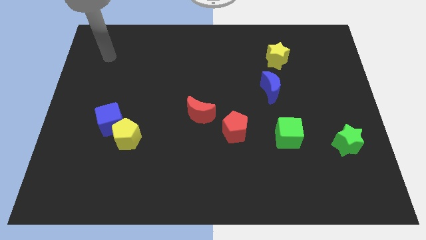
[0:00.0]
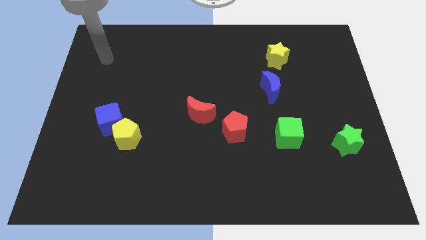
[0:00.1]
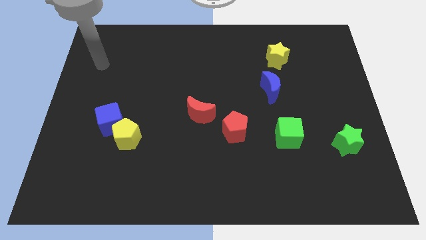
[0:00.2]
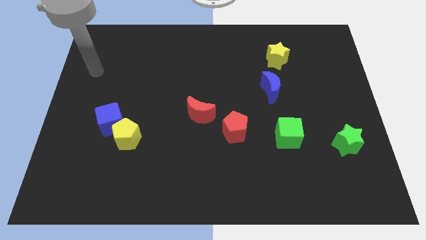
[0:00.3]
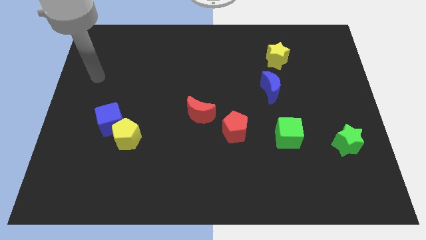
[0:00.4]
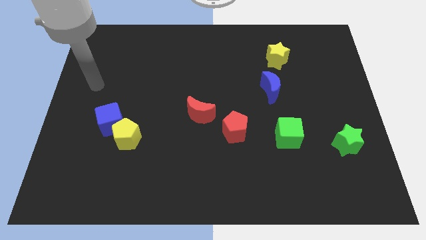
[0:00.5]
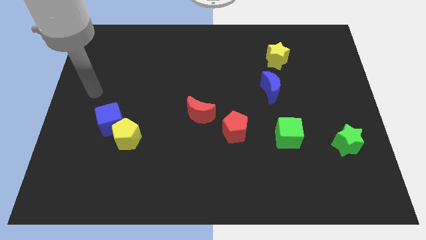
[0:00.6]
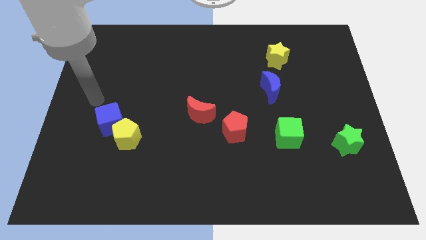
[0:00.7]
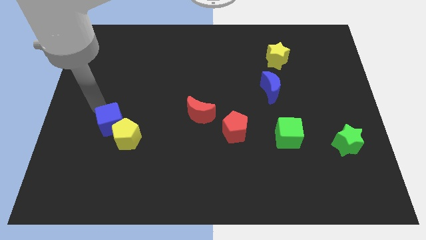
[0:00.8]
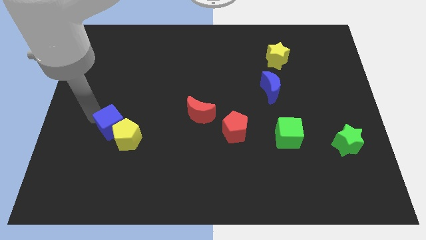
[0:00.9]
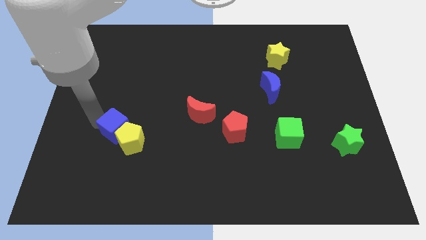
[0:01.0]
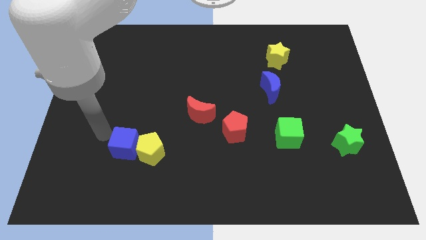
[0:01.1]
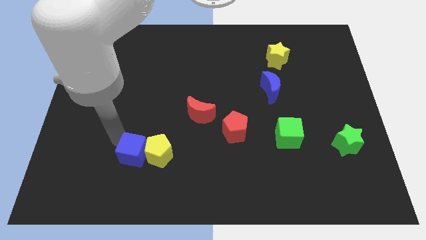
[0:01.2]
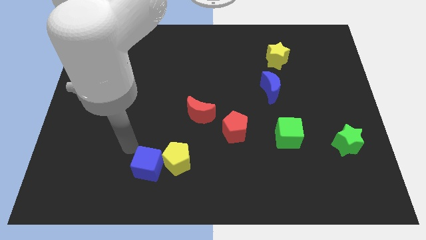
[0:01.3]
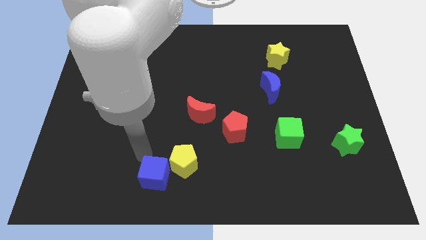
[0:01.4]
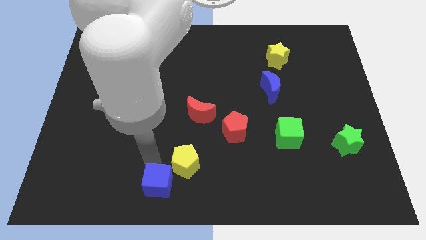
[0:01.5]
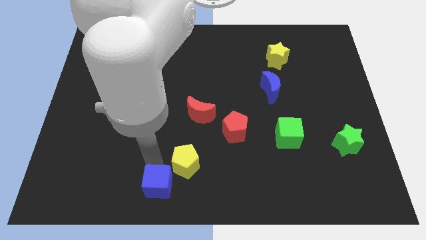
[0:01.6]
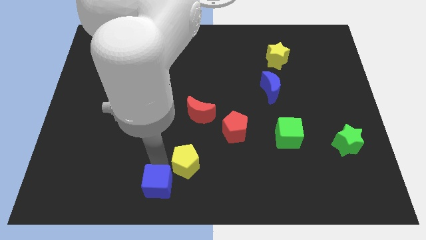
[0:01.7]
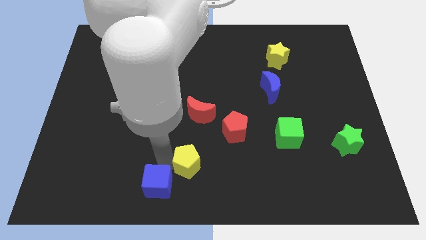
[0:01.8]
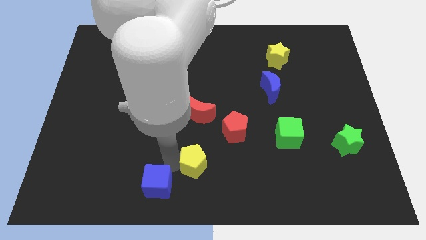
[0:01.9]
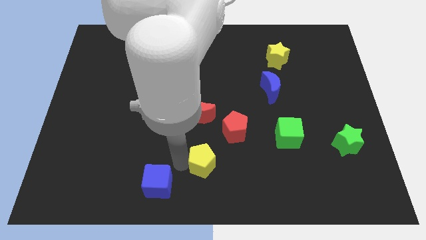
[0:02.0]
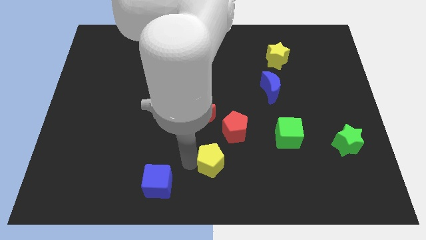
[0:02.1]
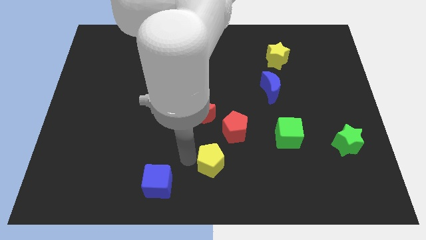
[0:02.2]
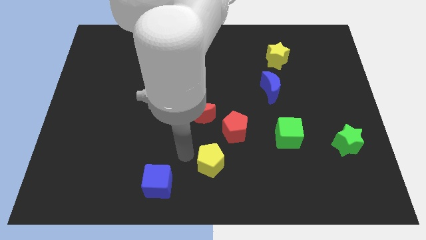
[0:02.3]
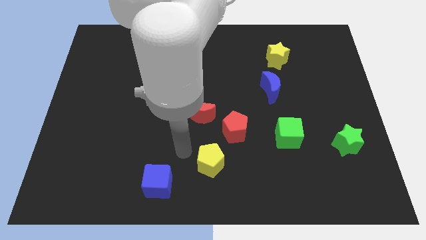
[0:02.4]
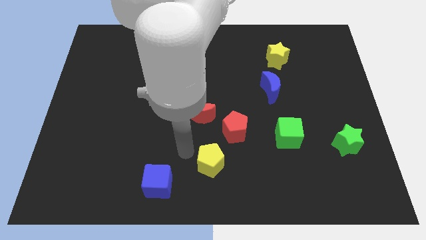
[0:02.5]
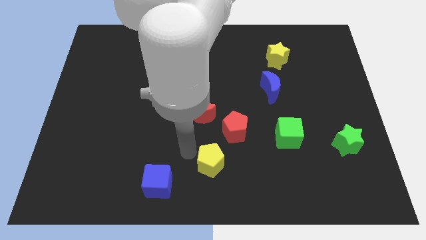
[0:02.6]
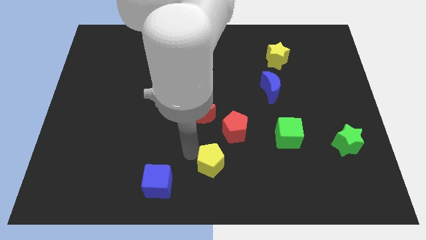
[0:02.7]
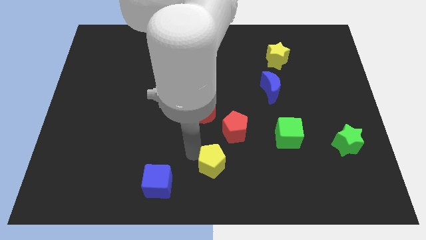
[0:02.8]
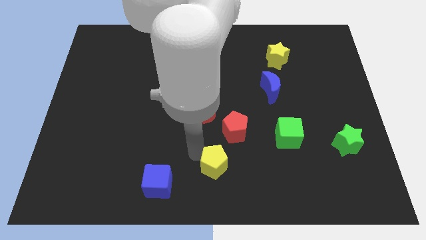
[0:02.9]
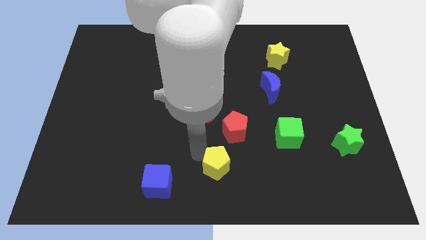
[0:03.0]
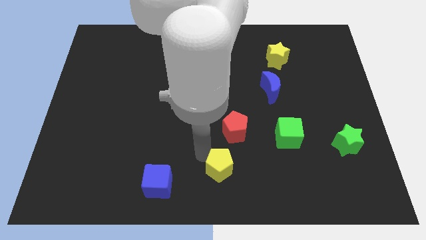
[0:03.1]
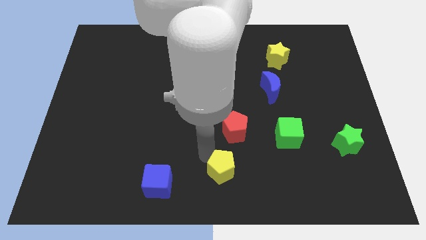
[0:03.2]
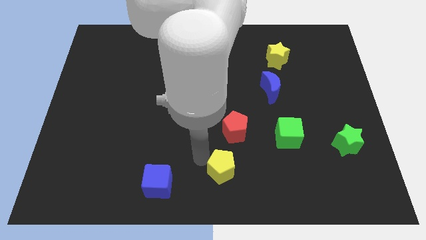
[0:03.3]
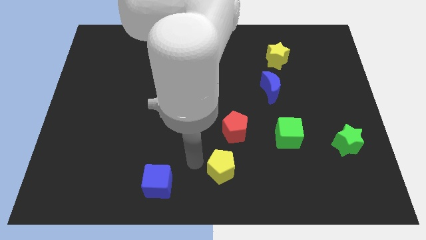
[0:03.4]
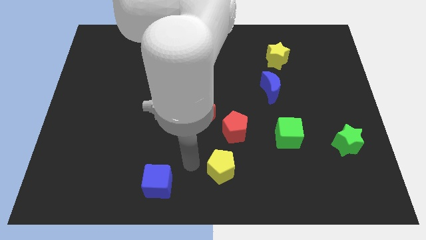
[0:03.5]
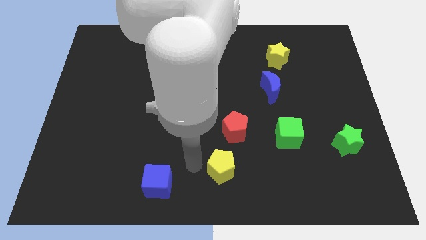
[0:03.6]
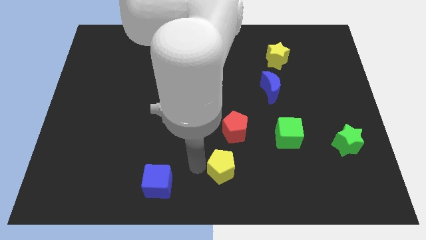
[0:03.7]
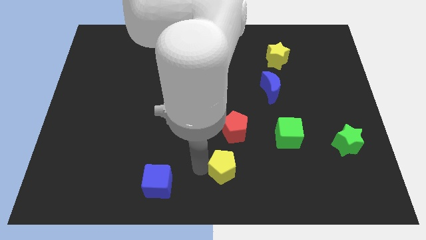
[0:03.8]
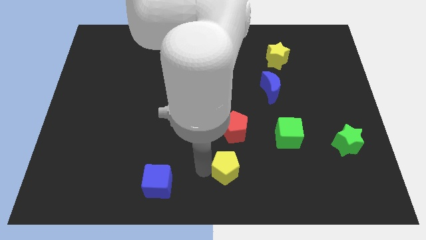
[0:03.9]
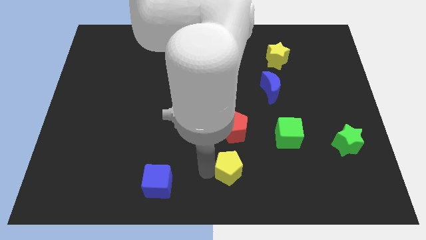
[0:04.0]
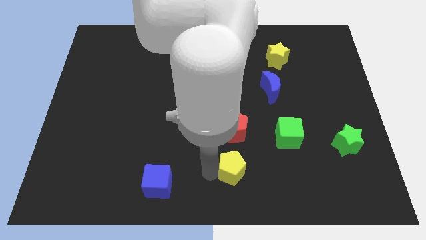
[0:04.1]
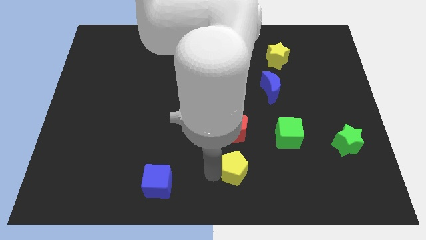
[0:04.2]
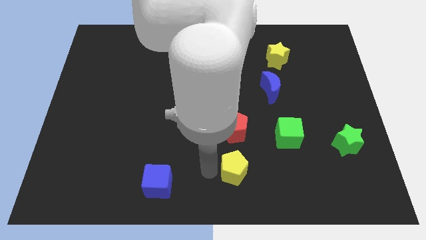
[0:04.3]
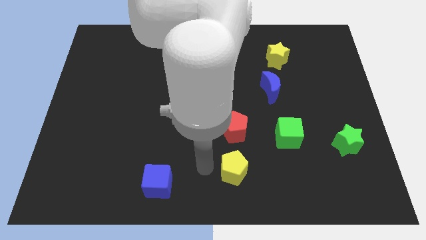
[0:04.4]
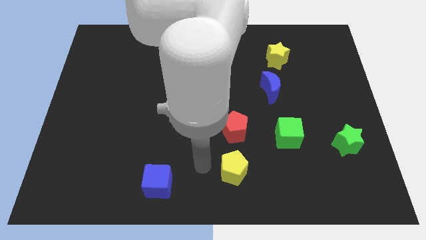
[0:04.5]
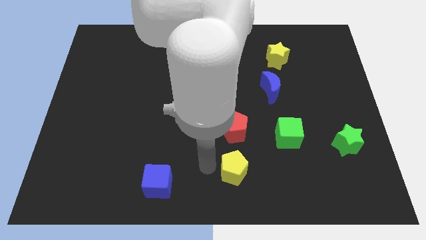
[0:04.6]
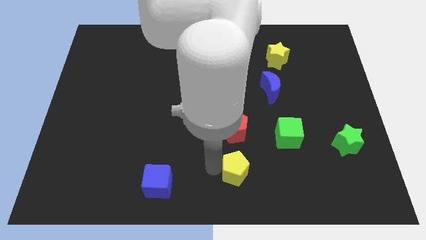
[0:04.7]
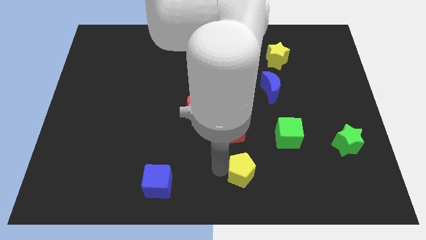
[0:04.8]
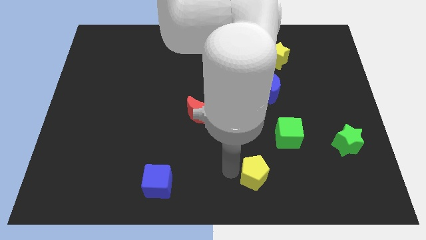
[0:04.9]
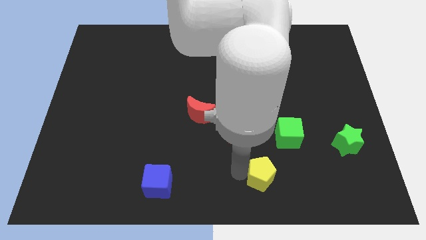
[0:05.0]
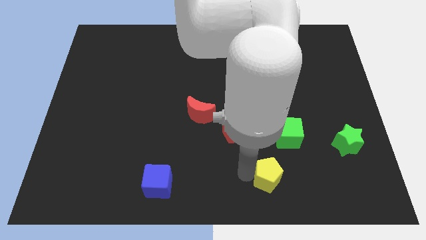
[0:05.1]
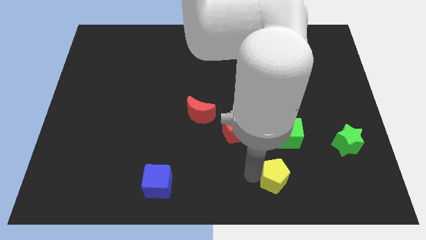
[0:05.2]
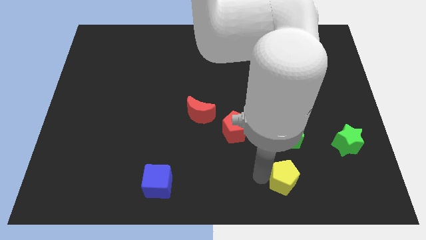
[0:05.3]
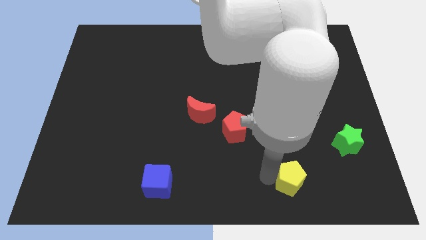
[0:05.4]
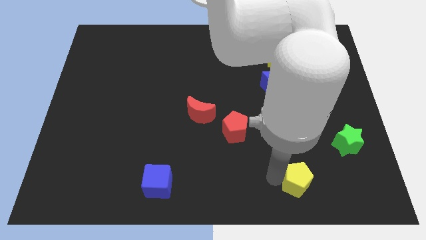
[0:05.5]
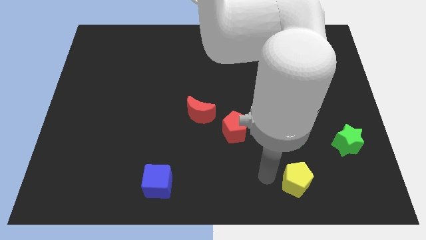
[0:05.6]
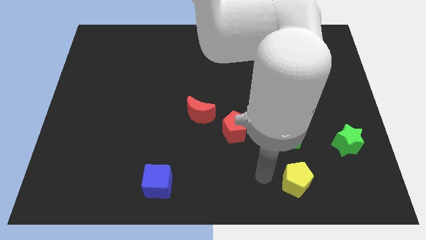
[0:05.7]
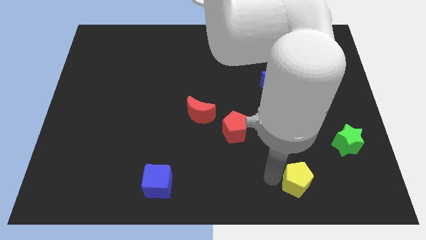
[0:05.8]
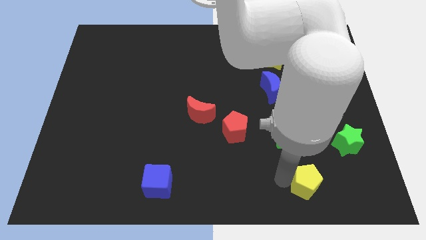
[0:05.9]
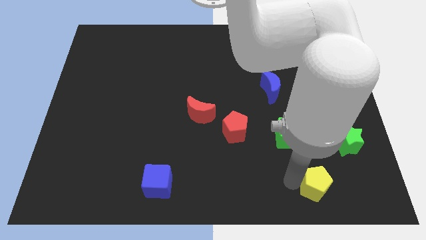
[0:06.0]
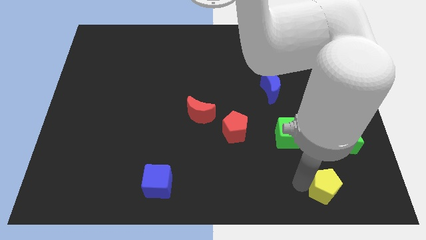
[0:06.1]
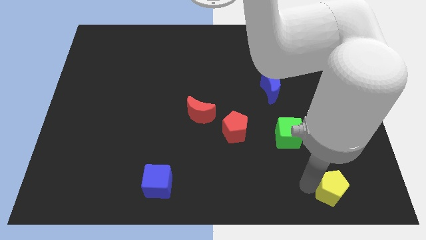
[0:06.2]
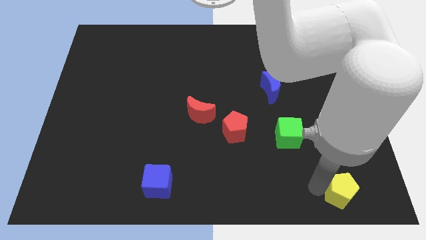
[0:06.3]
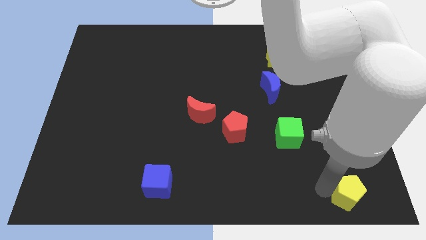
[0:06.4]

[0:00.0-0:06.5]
move the yellow pentagon to the bottom right
